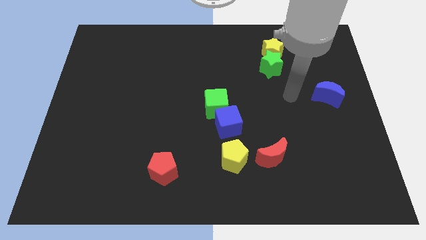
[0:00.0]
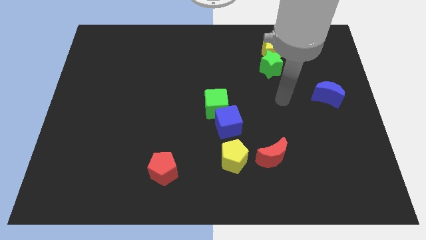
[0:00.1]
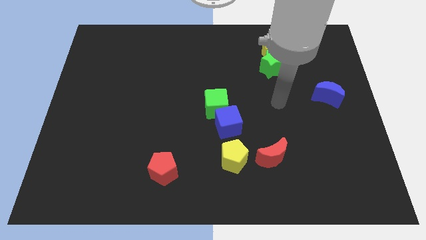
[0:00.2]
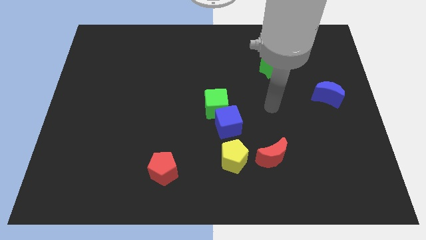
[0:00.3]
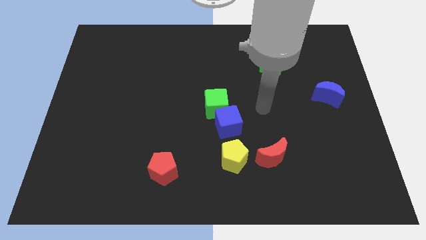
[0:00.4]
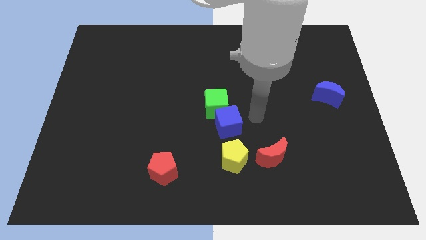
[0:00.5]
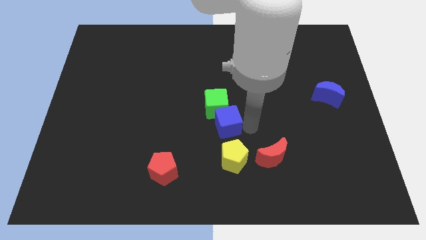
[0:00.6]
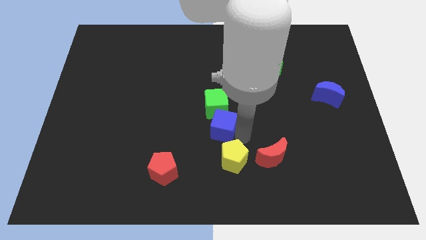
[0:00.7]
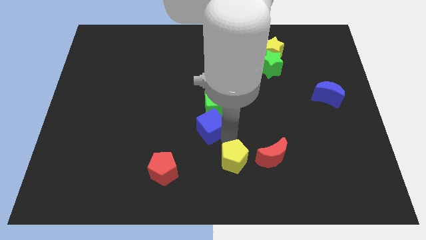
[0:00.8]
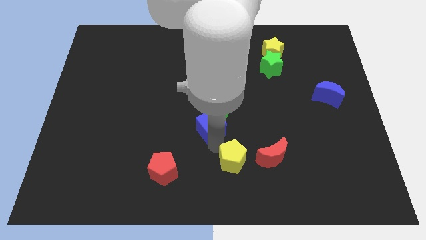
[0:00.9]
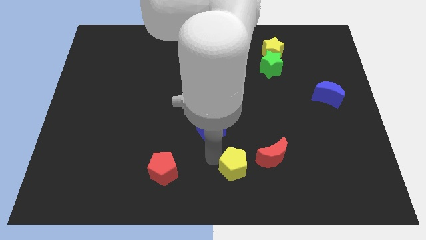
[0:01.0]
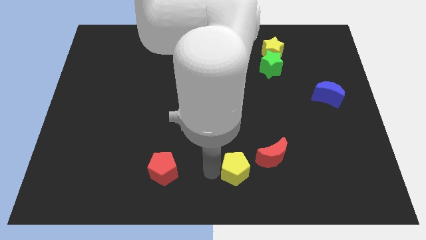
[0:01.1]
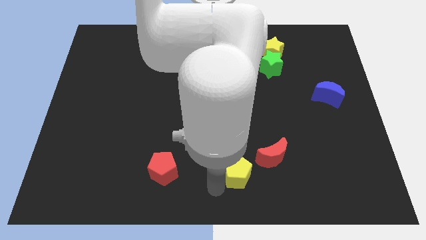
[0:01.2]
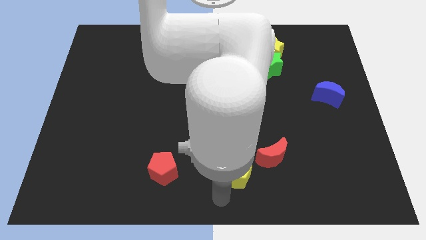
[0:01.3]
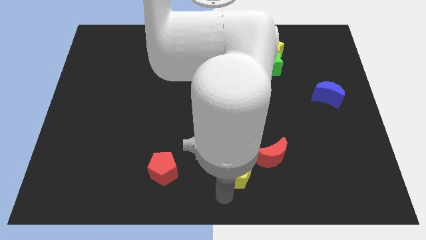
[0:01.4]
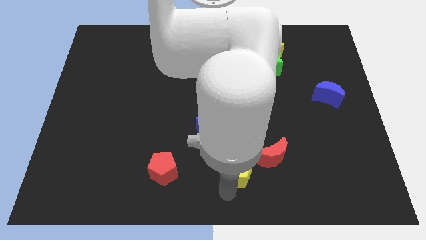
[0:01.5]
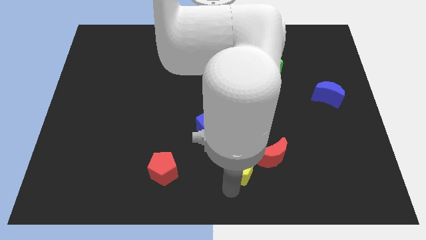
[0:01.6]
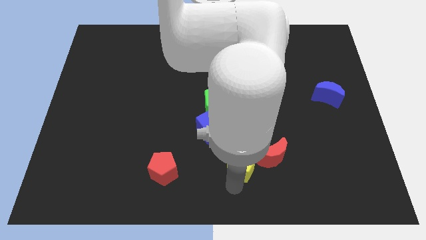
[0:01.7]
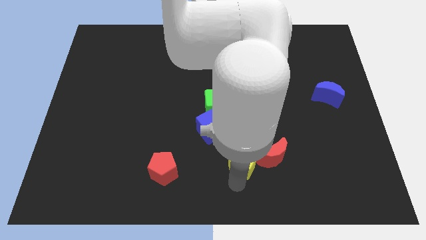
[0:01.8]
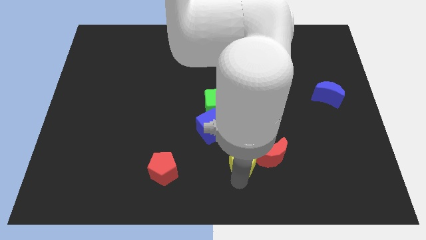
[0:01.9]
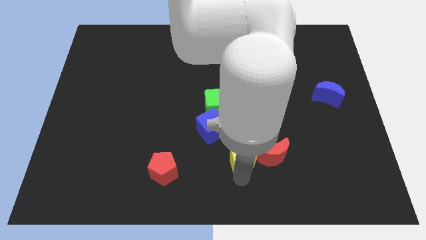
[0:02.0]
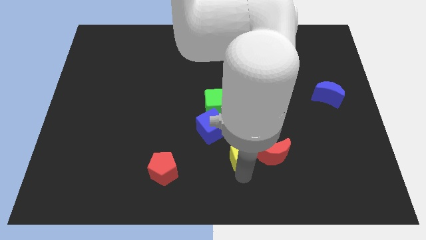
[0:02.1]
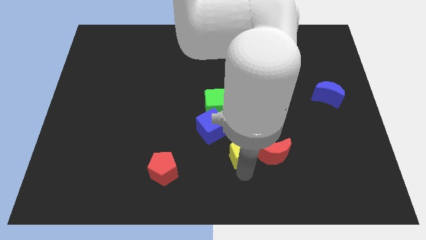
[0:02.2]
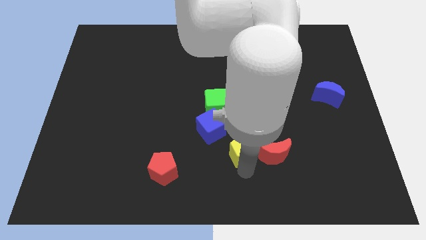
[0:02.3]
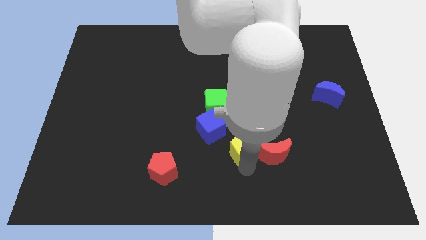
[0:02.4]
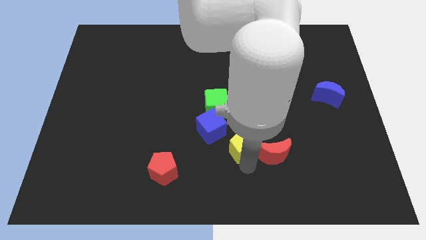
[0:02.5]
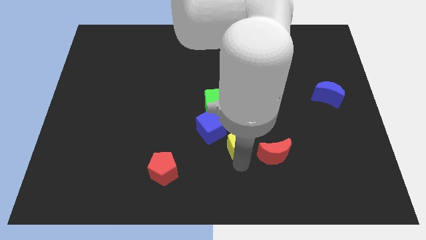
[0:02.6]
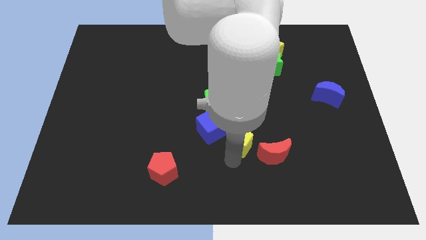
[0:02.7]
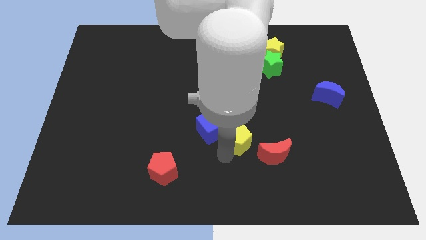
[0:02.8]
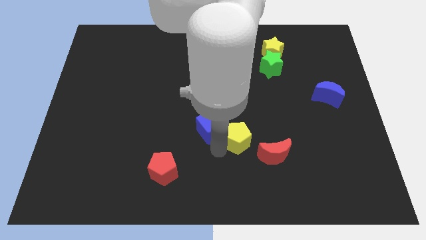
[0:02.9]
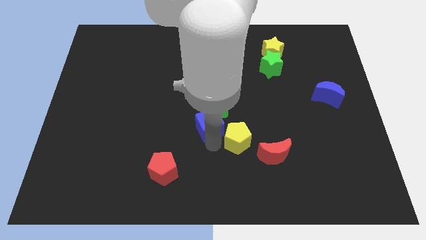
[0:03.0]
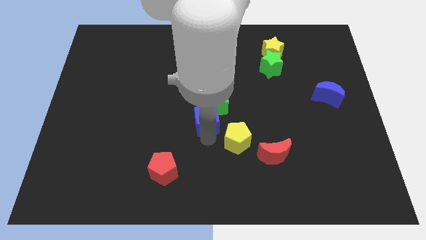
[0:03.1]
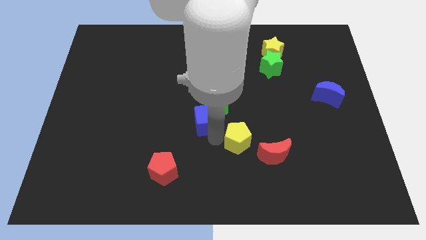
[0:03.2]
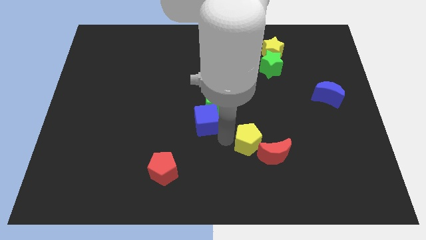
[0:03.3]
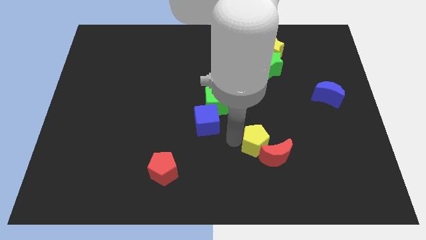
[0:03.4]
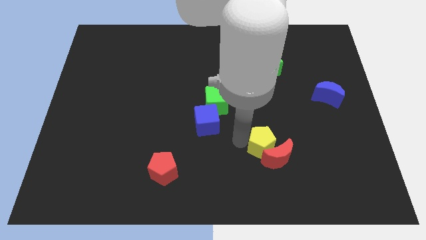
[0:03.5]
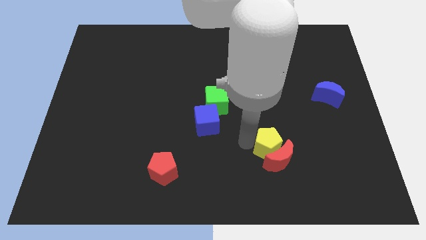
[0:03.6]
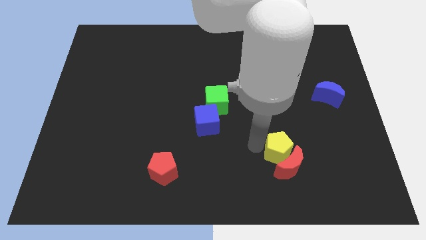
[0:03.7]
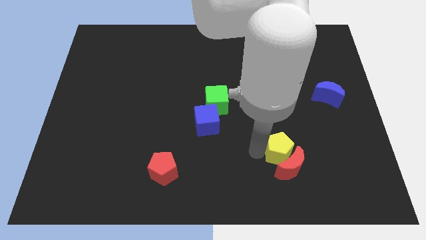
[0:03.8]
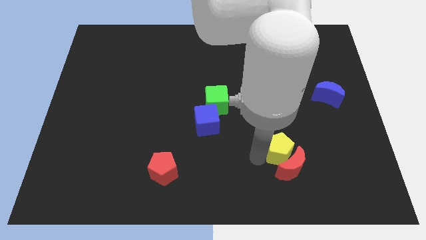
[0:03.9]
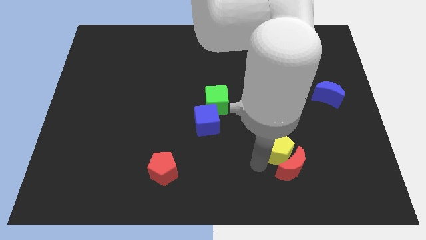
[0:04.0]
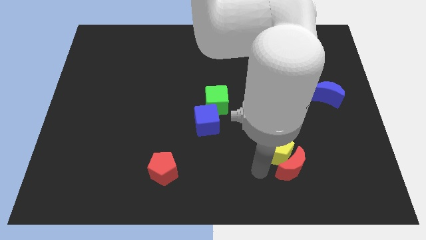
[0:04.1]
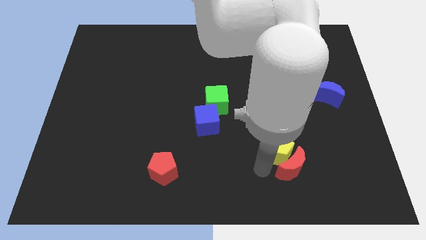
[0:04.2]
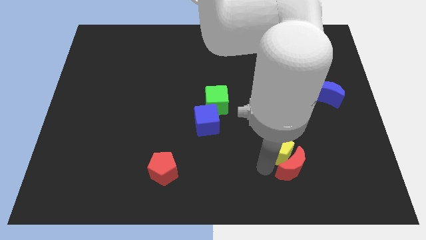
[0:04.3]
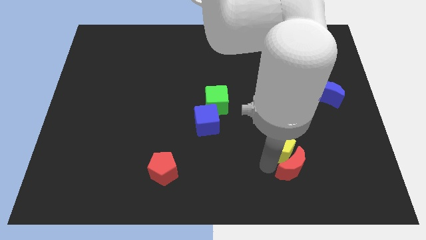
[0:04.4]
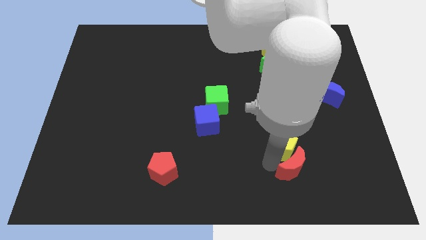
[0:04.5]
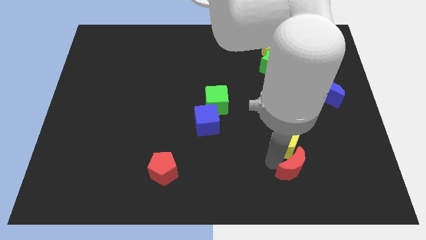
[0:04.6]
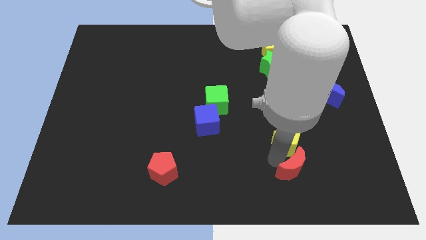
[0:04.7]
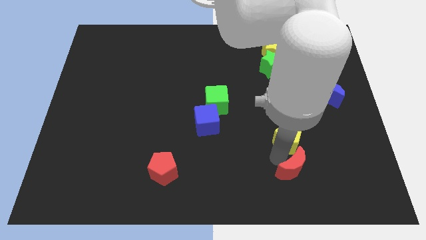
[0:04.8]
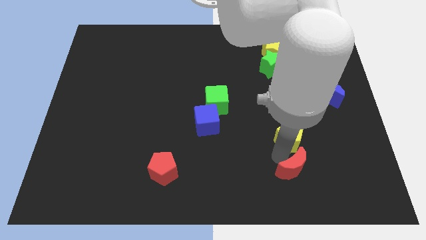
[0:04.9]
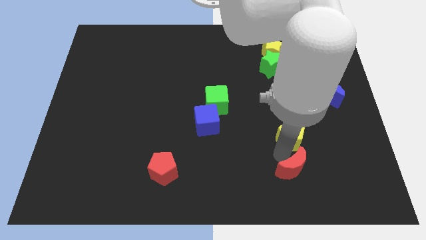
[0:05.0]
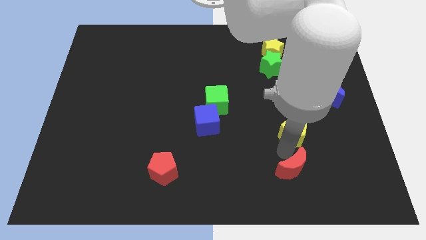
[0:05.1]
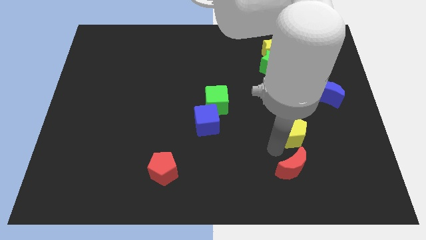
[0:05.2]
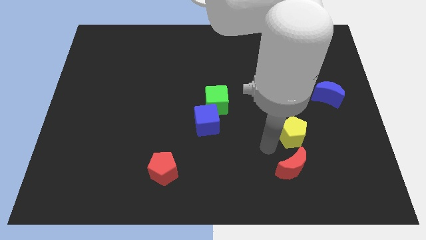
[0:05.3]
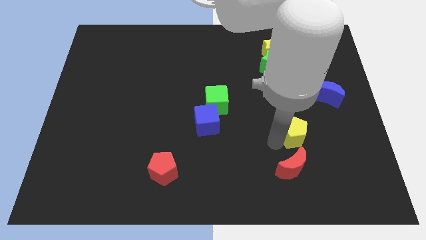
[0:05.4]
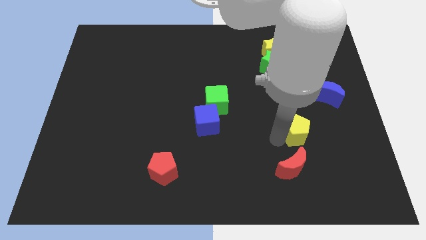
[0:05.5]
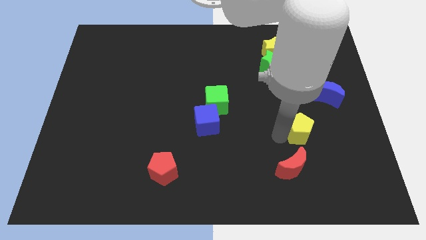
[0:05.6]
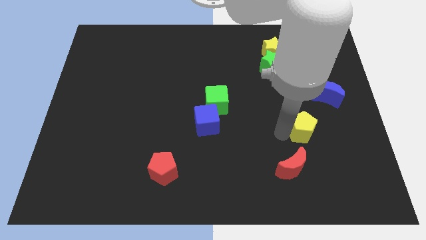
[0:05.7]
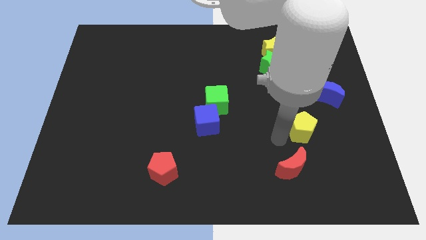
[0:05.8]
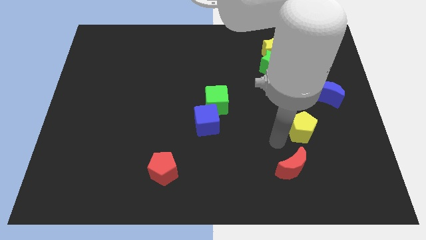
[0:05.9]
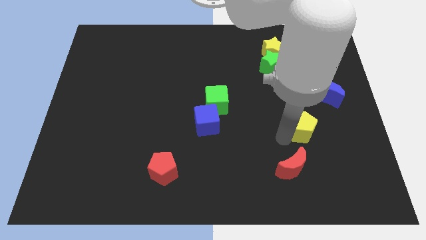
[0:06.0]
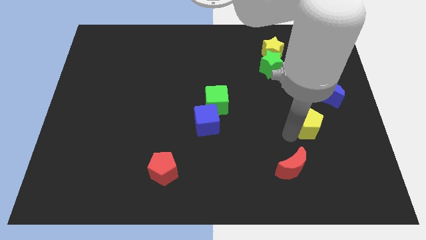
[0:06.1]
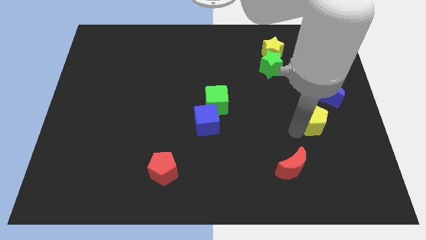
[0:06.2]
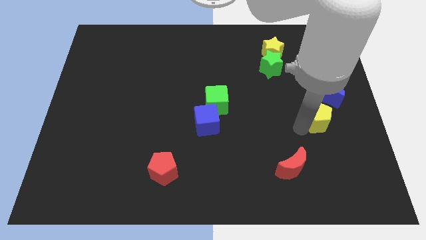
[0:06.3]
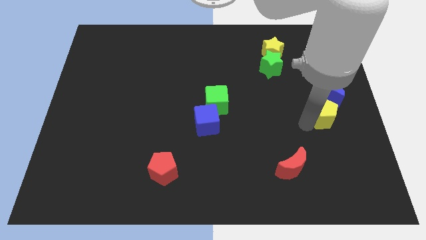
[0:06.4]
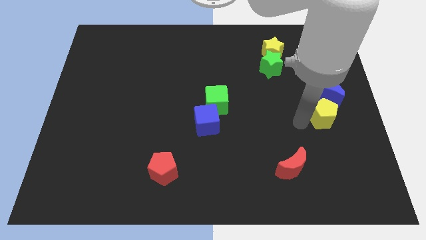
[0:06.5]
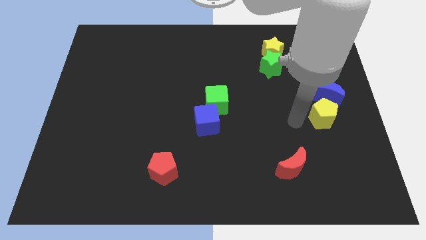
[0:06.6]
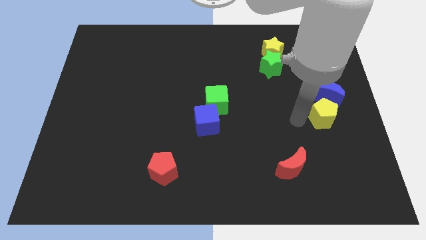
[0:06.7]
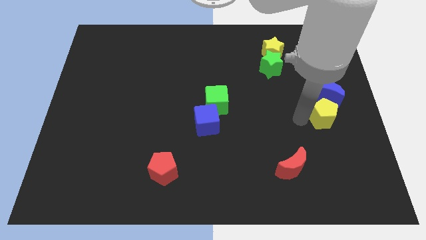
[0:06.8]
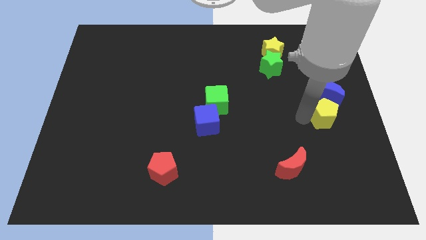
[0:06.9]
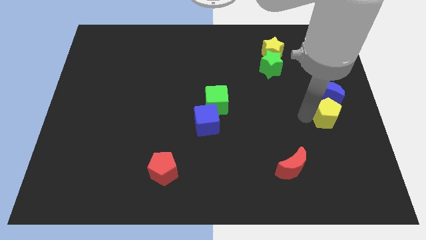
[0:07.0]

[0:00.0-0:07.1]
move the yellow pentagon to the center right

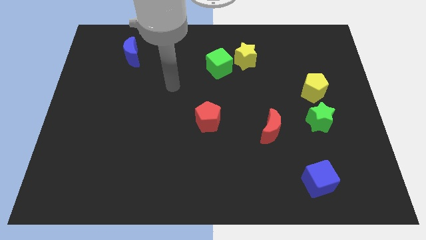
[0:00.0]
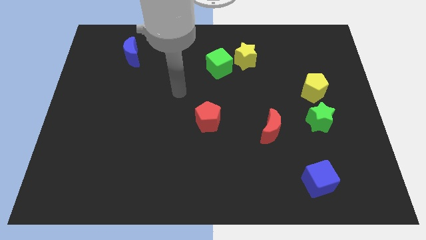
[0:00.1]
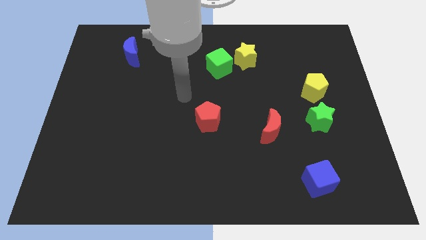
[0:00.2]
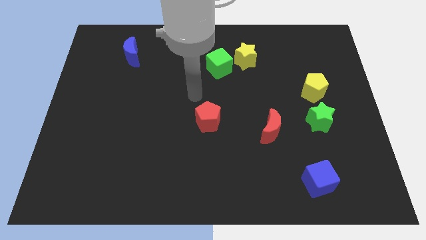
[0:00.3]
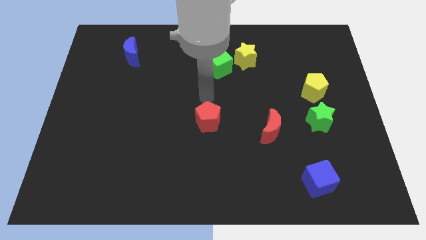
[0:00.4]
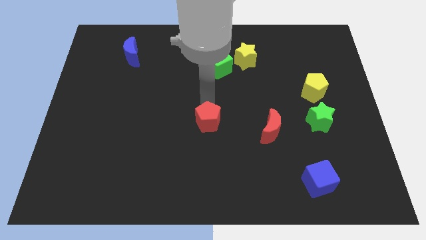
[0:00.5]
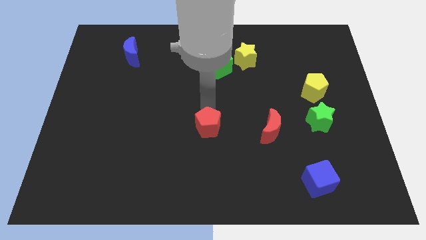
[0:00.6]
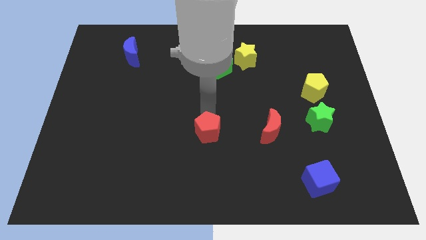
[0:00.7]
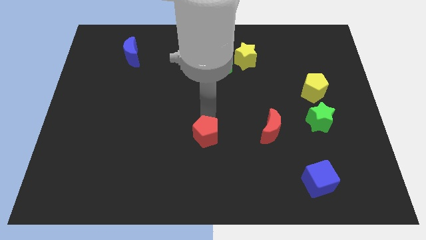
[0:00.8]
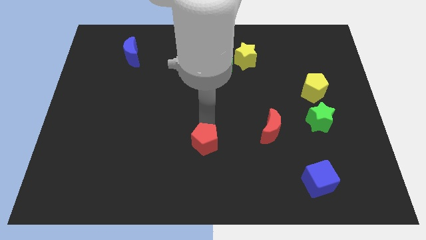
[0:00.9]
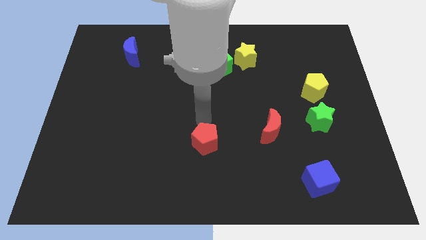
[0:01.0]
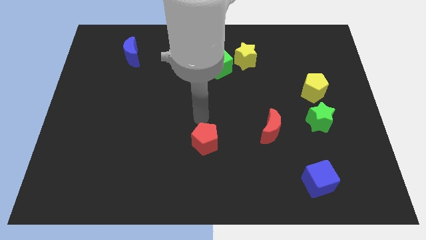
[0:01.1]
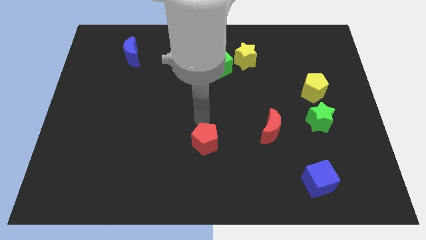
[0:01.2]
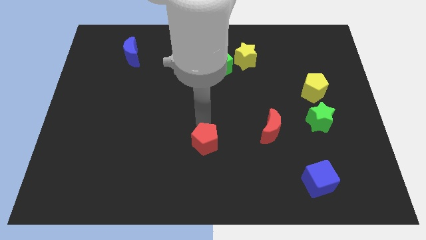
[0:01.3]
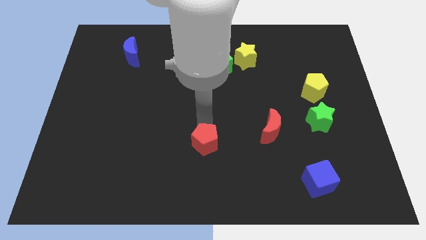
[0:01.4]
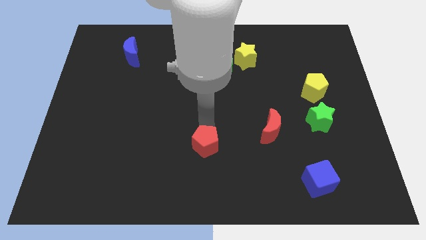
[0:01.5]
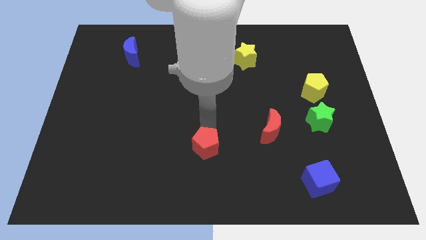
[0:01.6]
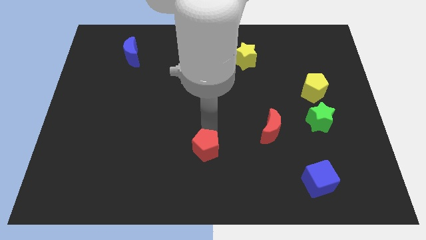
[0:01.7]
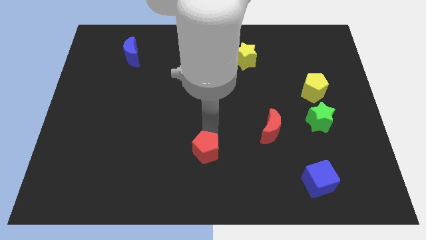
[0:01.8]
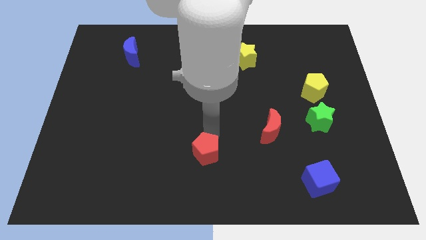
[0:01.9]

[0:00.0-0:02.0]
put the red pentagon to the bottom
